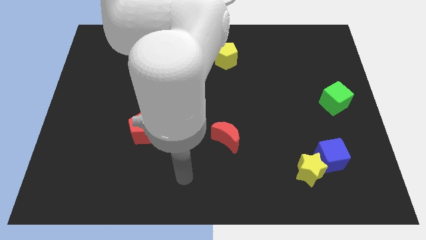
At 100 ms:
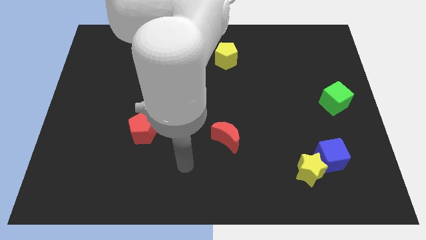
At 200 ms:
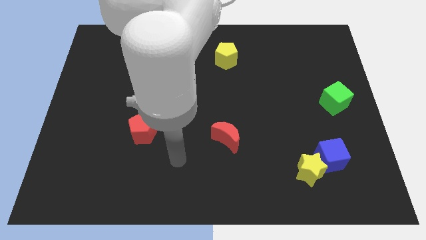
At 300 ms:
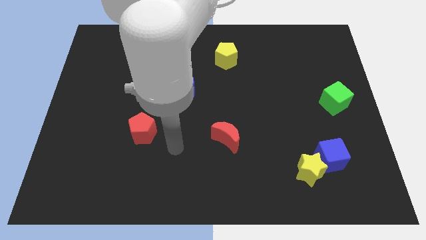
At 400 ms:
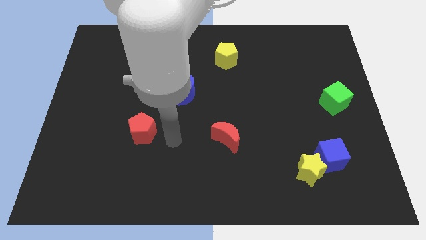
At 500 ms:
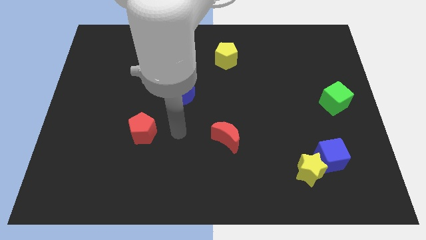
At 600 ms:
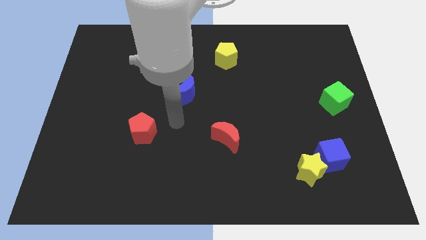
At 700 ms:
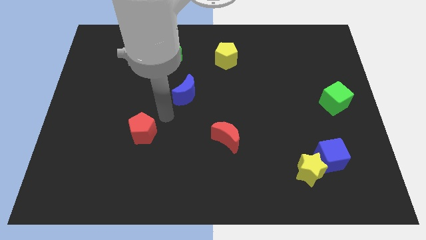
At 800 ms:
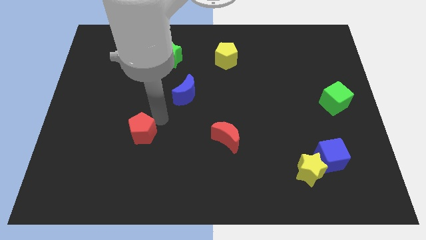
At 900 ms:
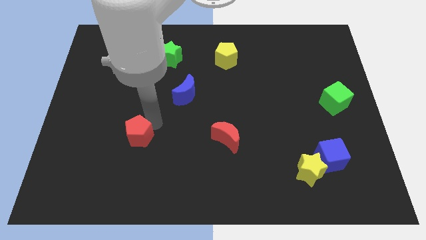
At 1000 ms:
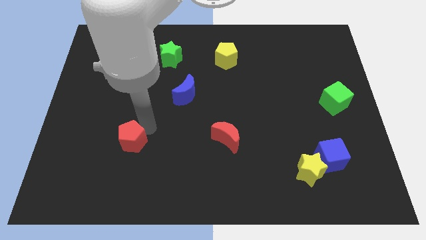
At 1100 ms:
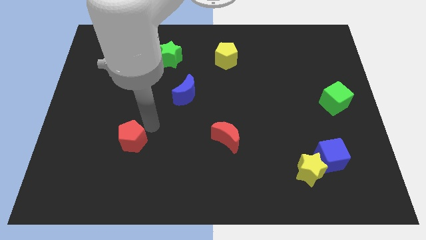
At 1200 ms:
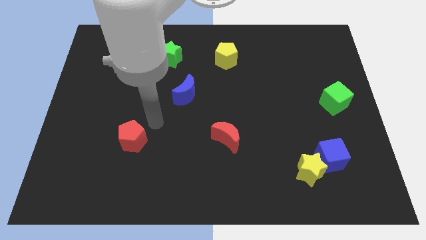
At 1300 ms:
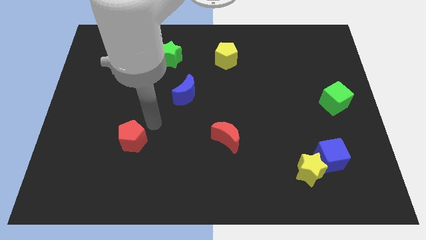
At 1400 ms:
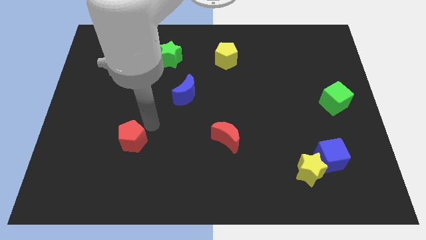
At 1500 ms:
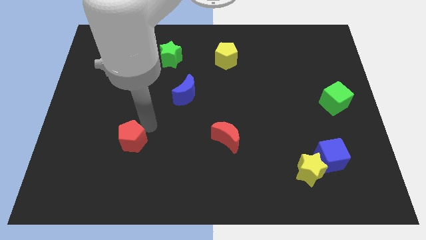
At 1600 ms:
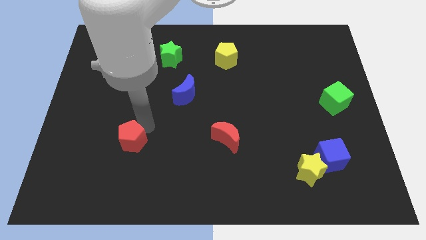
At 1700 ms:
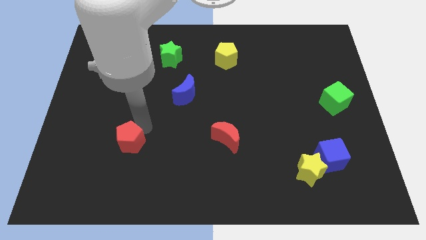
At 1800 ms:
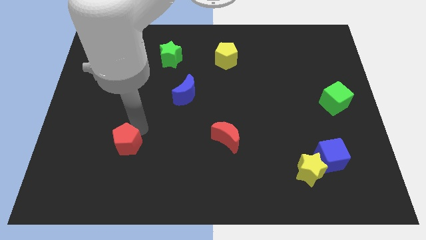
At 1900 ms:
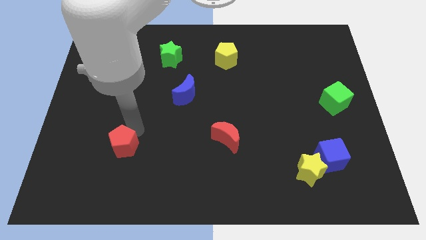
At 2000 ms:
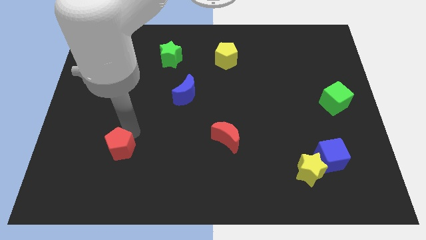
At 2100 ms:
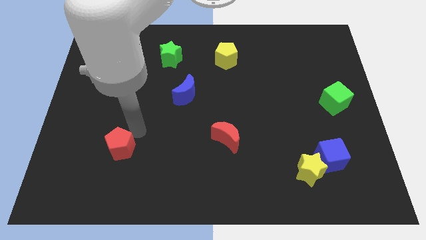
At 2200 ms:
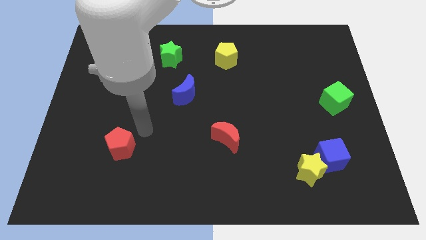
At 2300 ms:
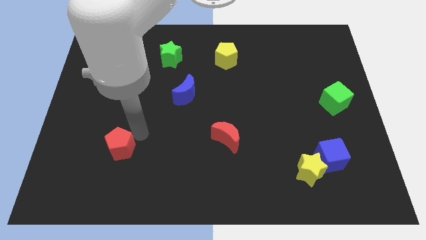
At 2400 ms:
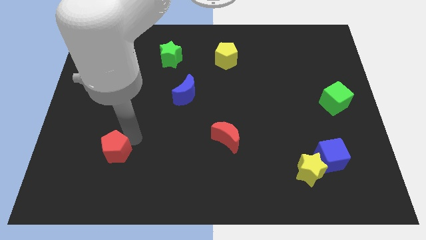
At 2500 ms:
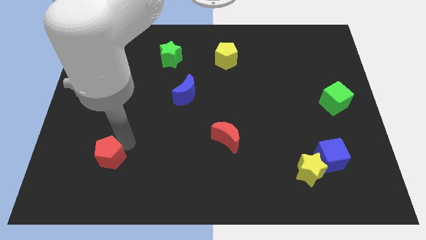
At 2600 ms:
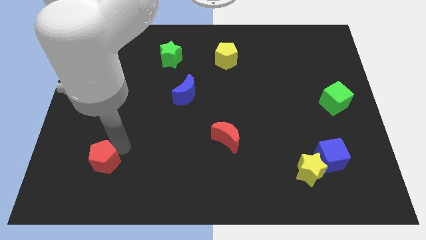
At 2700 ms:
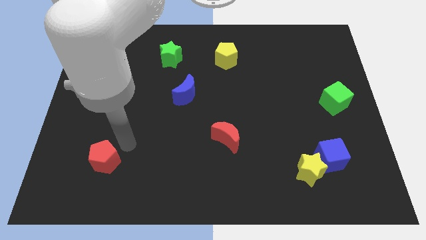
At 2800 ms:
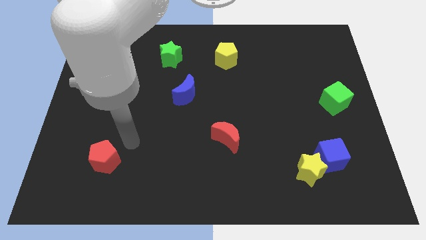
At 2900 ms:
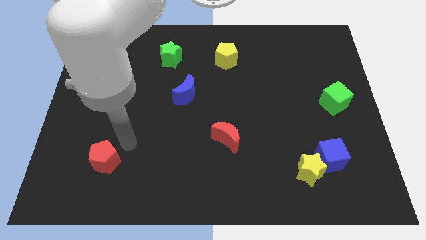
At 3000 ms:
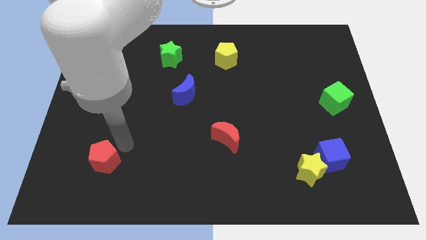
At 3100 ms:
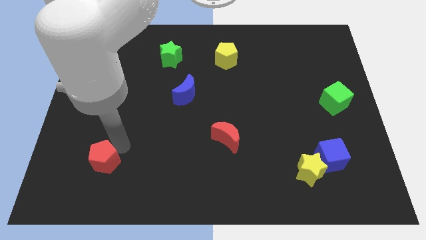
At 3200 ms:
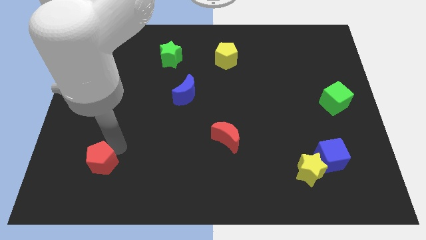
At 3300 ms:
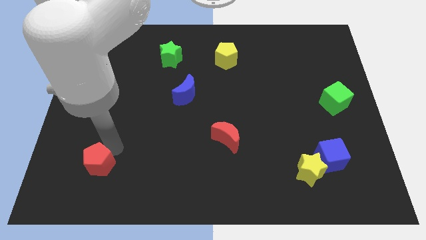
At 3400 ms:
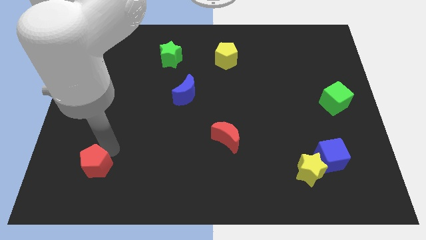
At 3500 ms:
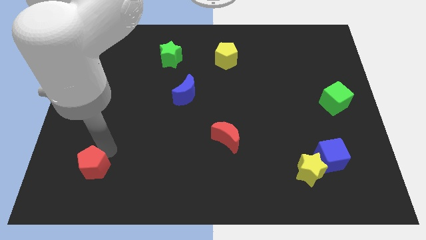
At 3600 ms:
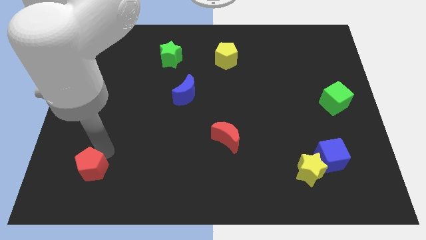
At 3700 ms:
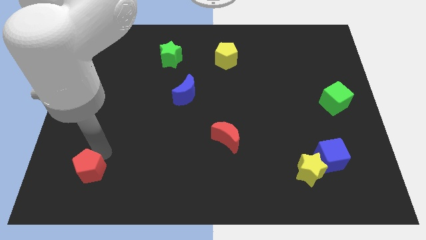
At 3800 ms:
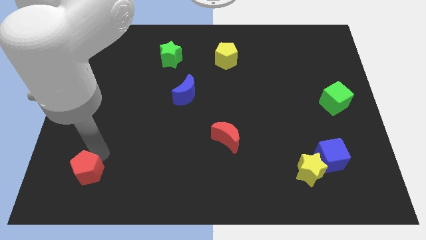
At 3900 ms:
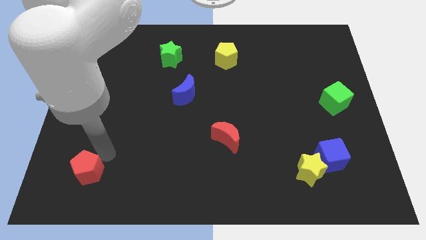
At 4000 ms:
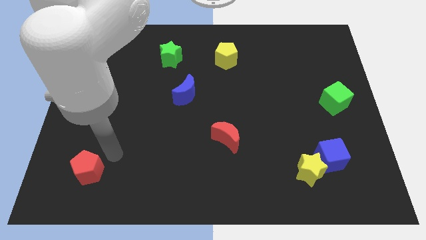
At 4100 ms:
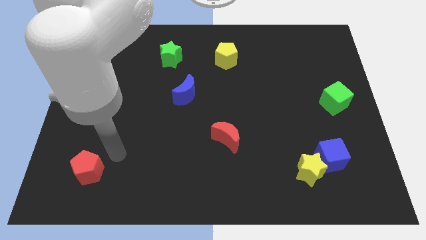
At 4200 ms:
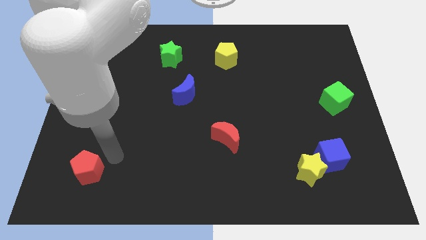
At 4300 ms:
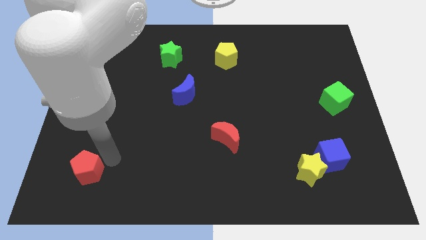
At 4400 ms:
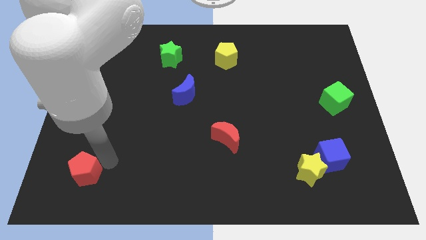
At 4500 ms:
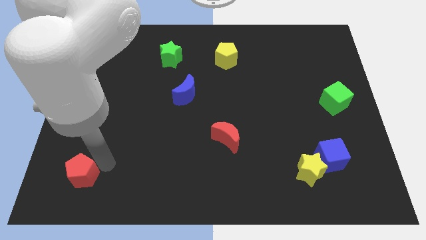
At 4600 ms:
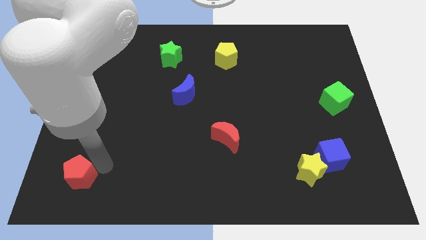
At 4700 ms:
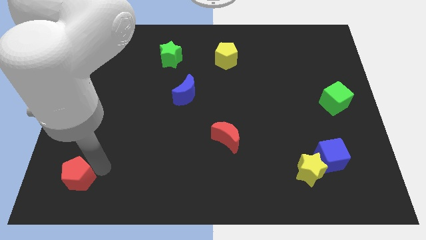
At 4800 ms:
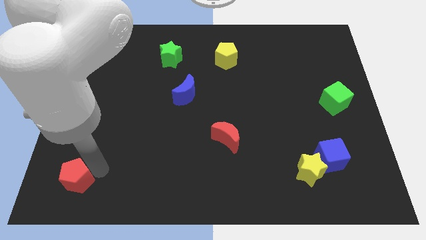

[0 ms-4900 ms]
push the red pentagon to the bottom left of the board

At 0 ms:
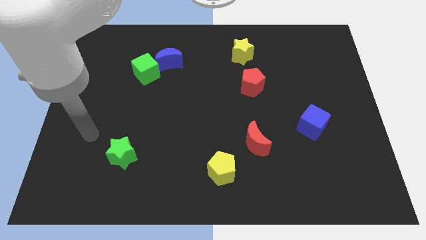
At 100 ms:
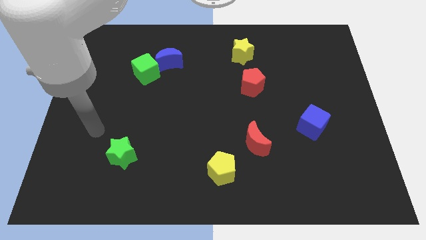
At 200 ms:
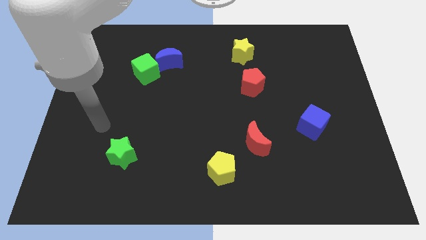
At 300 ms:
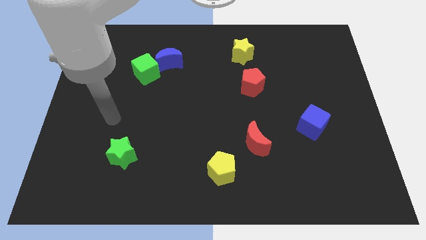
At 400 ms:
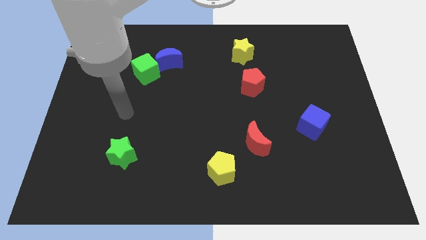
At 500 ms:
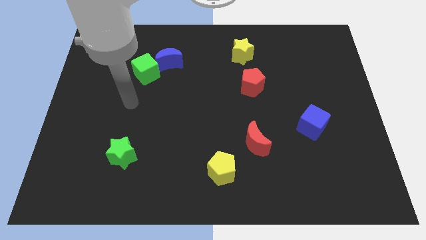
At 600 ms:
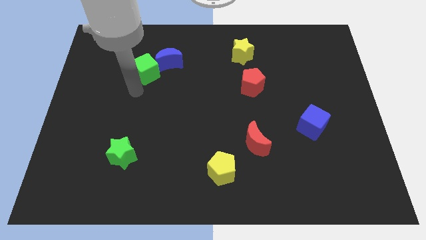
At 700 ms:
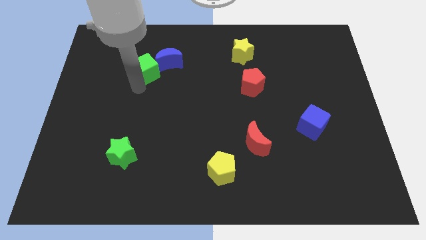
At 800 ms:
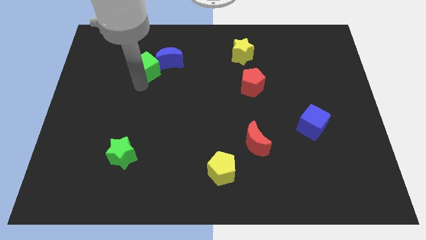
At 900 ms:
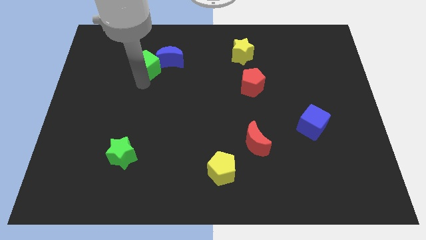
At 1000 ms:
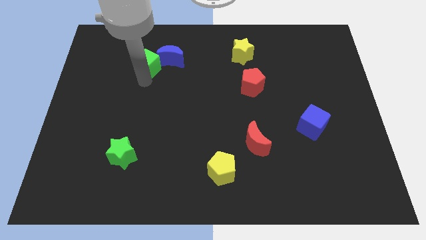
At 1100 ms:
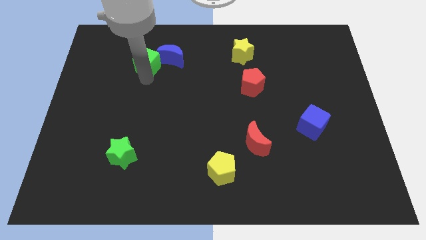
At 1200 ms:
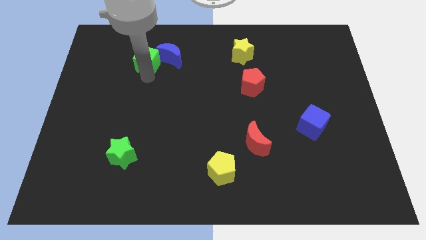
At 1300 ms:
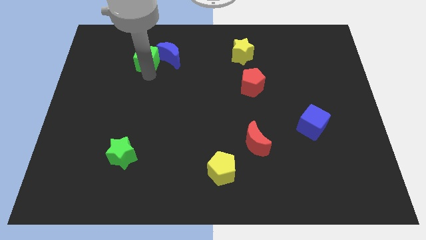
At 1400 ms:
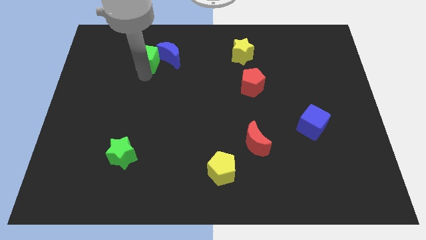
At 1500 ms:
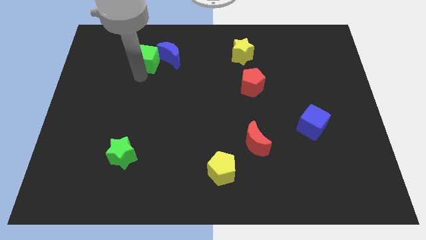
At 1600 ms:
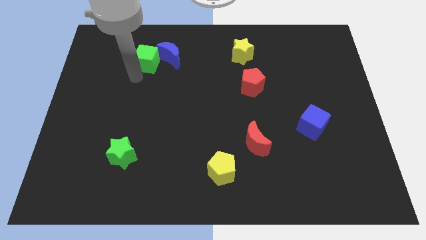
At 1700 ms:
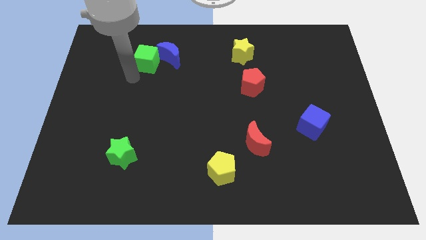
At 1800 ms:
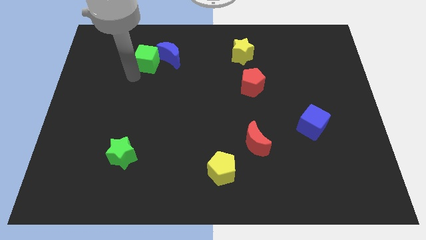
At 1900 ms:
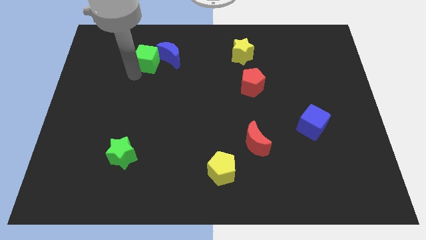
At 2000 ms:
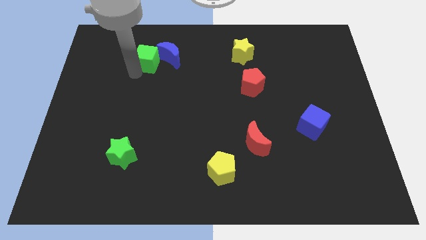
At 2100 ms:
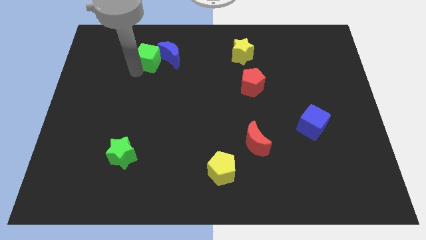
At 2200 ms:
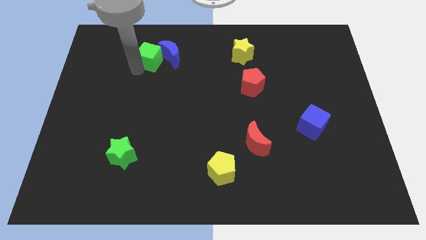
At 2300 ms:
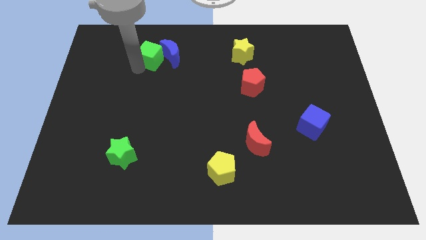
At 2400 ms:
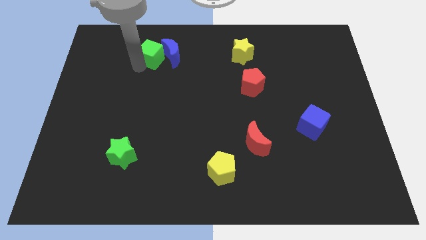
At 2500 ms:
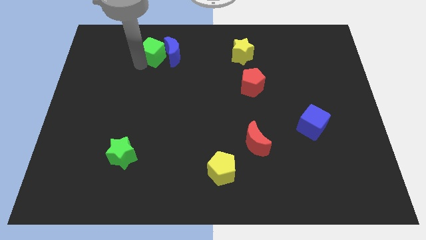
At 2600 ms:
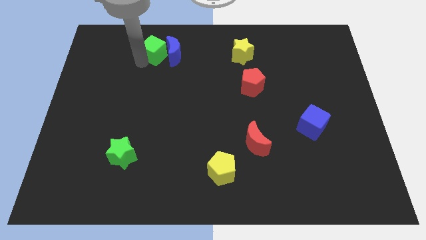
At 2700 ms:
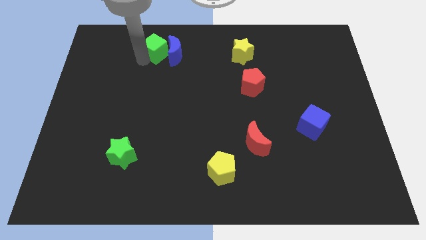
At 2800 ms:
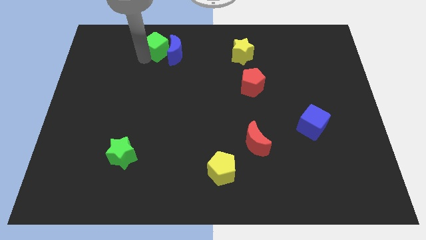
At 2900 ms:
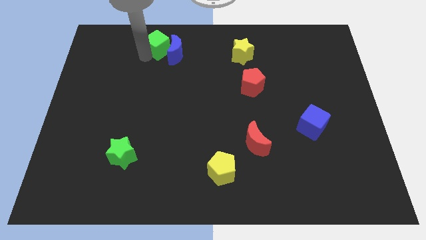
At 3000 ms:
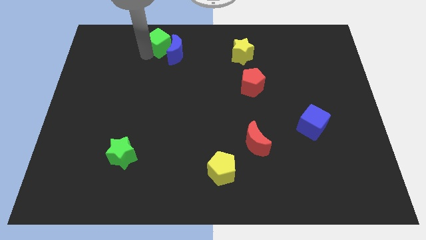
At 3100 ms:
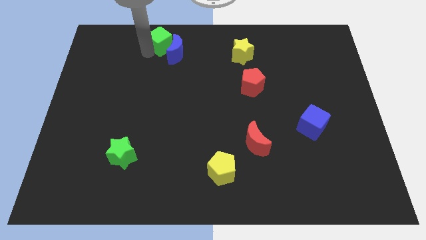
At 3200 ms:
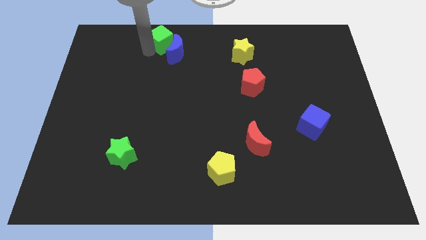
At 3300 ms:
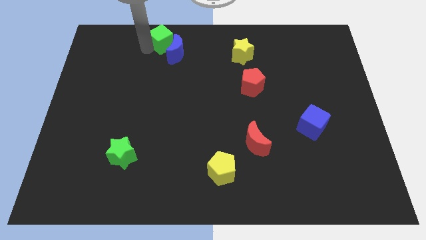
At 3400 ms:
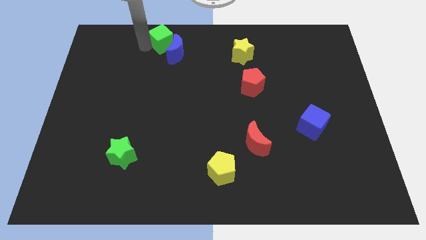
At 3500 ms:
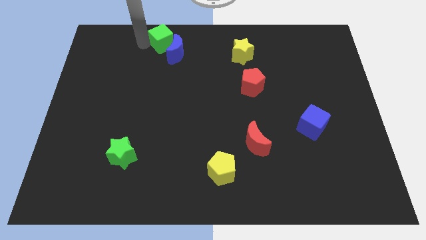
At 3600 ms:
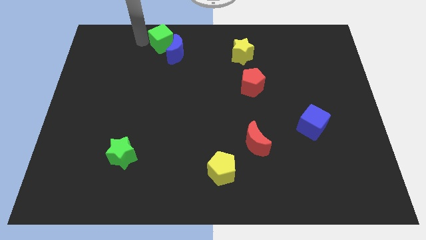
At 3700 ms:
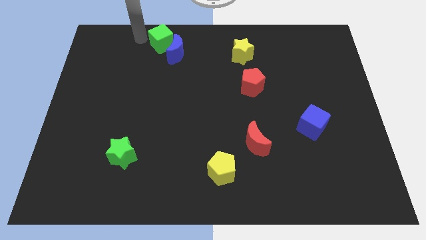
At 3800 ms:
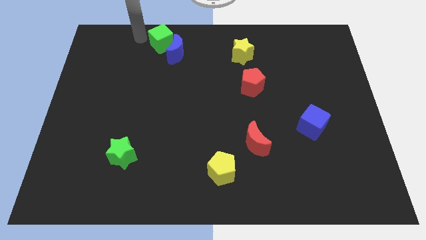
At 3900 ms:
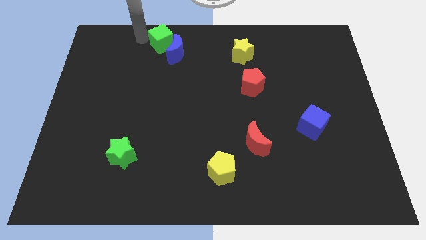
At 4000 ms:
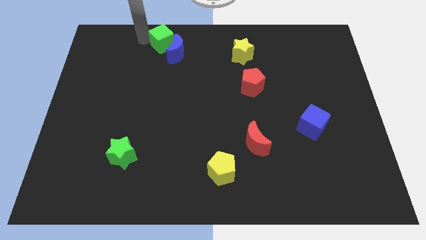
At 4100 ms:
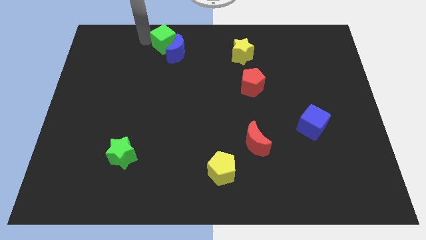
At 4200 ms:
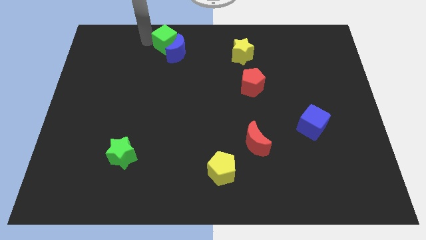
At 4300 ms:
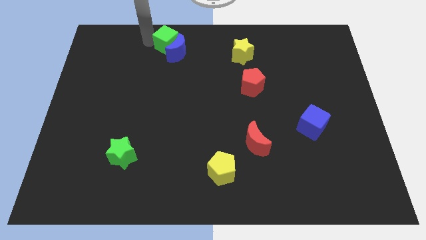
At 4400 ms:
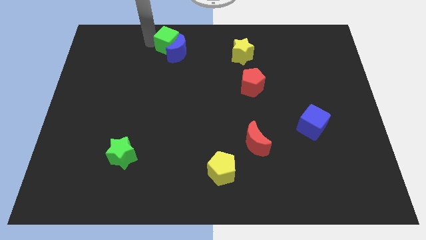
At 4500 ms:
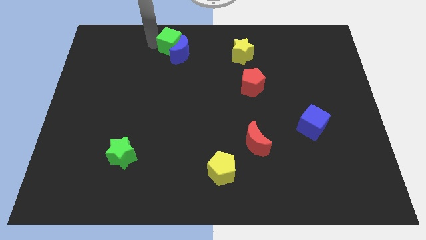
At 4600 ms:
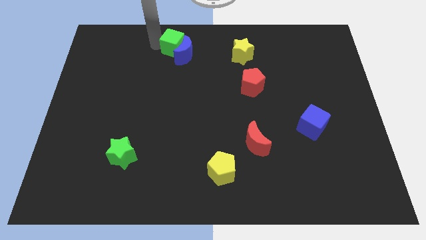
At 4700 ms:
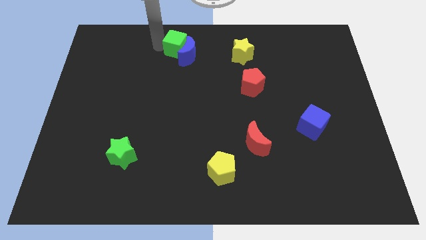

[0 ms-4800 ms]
move the green cube to the towards your base
